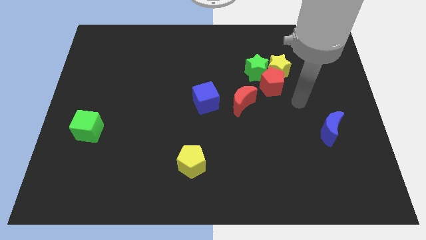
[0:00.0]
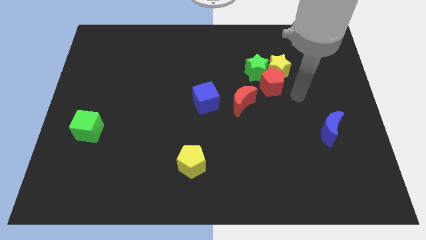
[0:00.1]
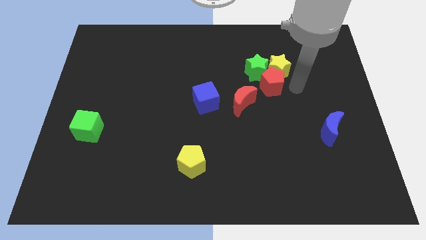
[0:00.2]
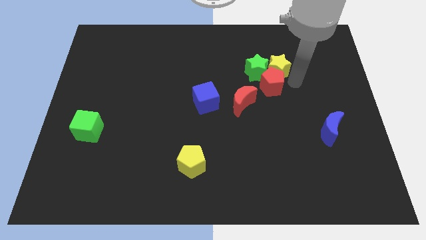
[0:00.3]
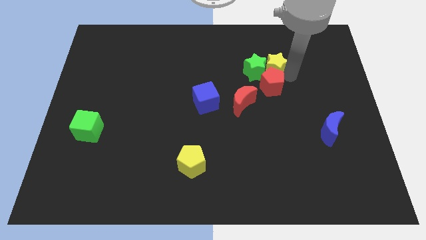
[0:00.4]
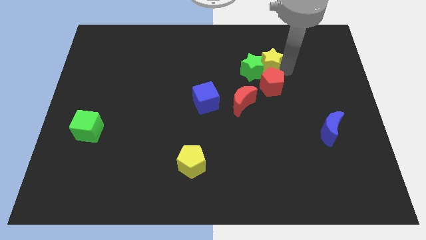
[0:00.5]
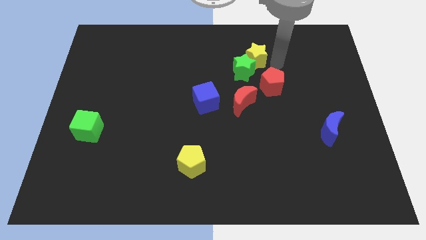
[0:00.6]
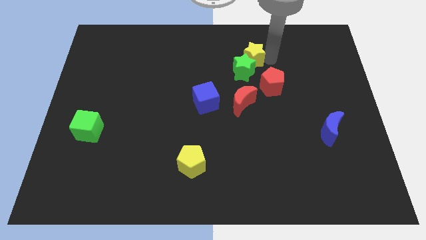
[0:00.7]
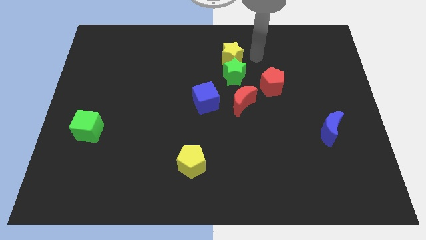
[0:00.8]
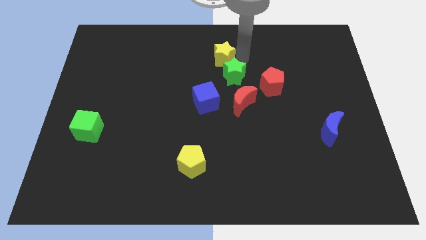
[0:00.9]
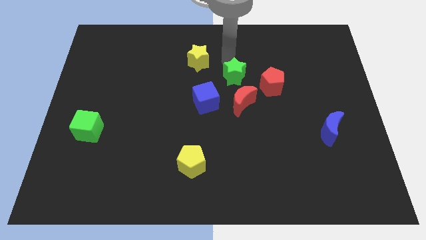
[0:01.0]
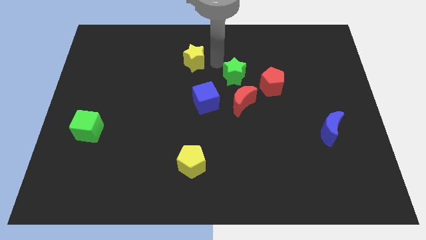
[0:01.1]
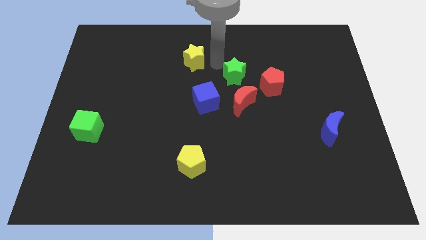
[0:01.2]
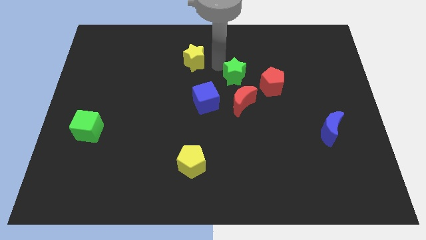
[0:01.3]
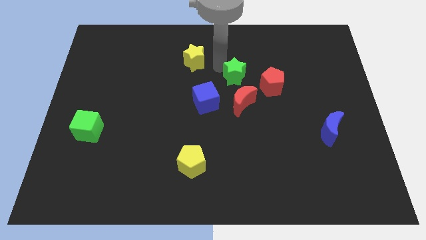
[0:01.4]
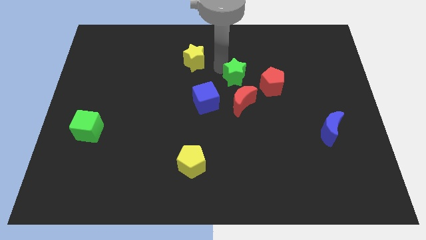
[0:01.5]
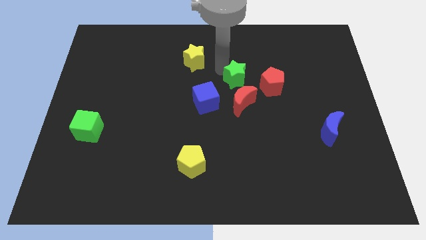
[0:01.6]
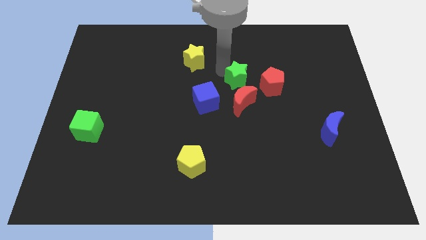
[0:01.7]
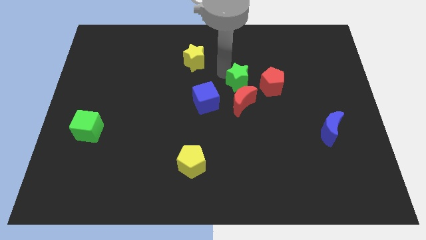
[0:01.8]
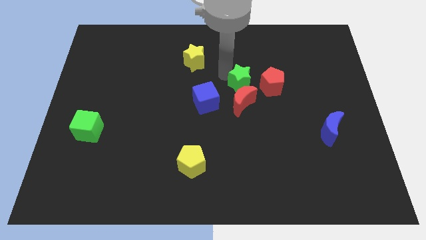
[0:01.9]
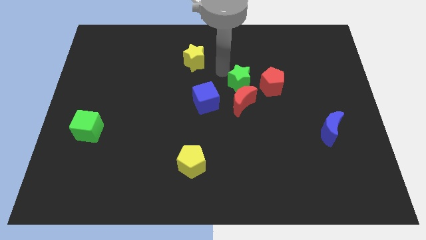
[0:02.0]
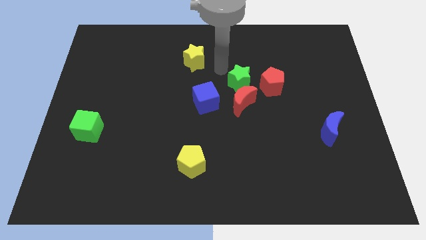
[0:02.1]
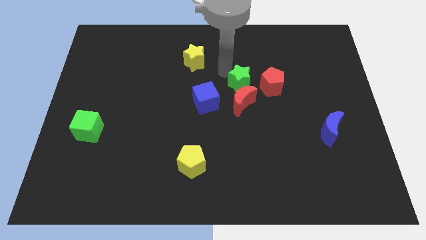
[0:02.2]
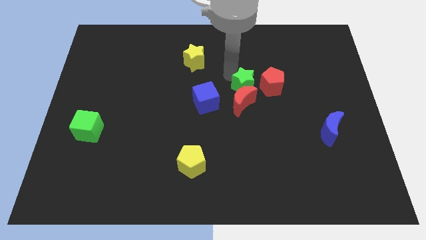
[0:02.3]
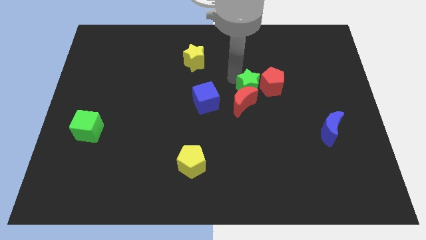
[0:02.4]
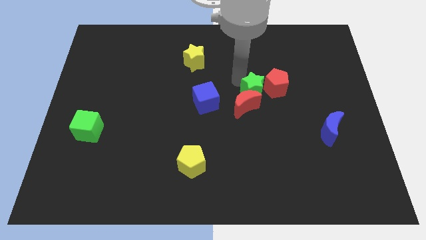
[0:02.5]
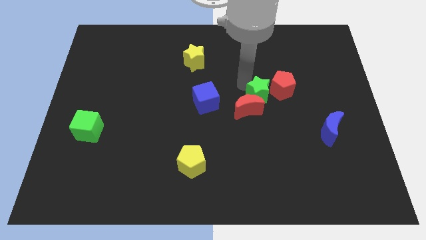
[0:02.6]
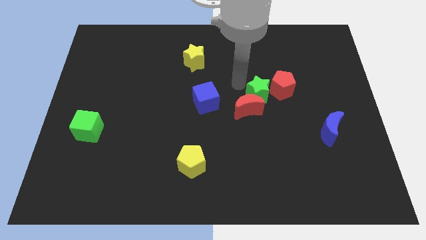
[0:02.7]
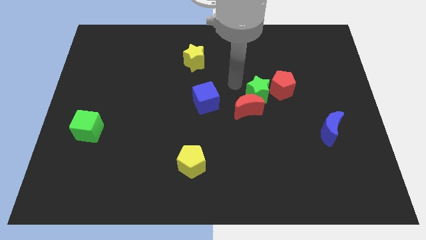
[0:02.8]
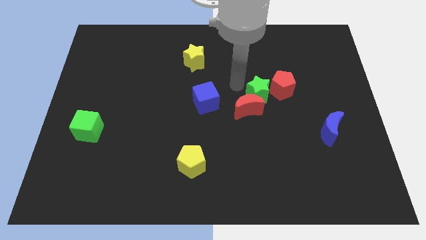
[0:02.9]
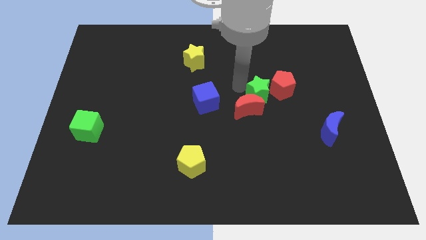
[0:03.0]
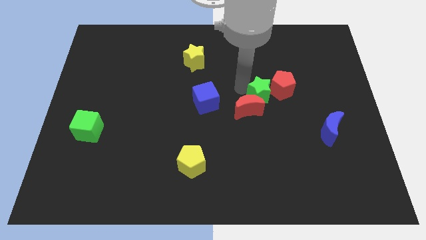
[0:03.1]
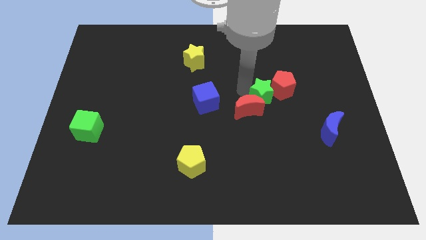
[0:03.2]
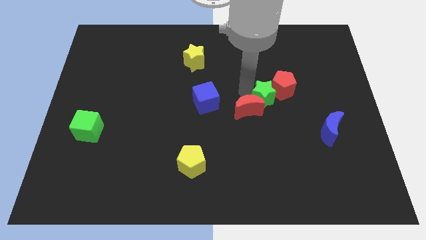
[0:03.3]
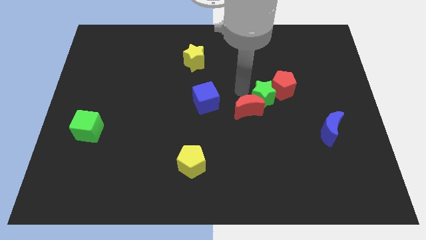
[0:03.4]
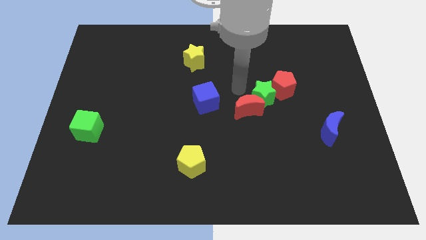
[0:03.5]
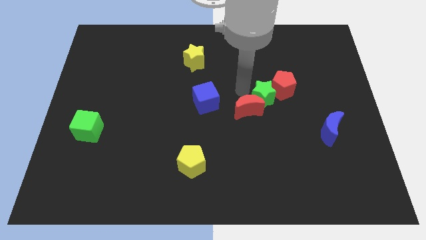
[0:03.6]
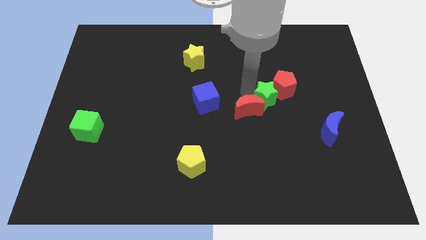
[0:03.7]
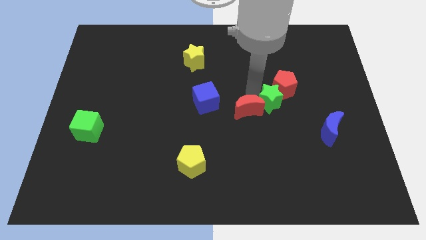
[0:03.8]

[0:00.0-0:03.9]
slide the green star diagonally down and right a little bit

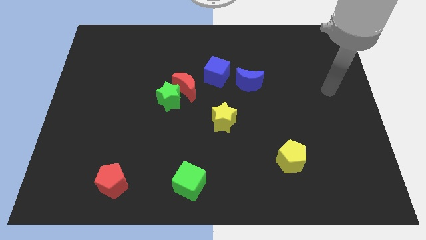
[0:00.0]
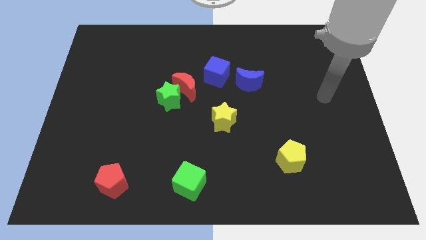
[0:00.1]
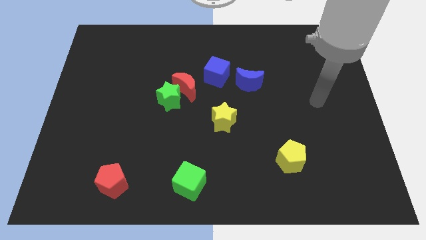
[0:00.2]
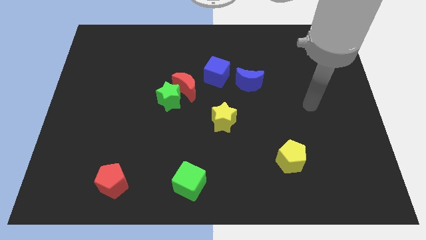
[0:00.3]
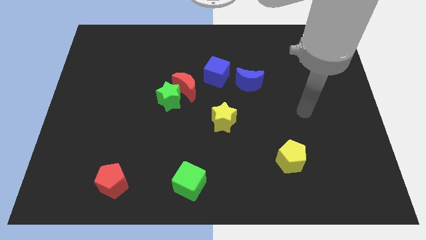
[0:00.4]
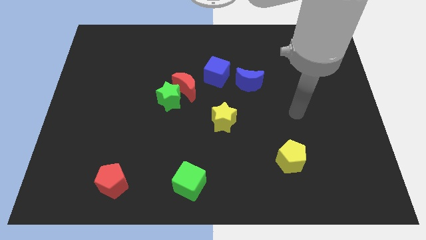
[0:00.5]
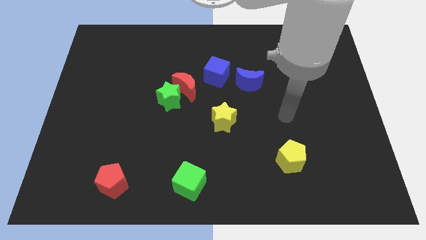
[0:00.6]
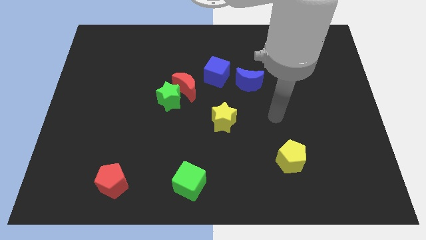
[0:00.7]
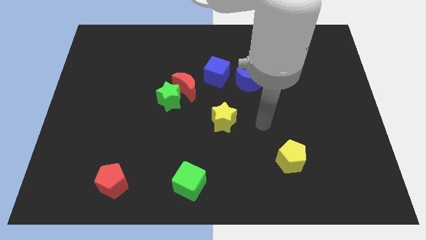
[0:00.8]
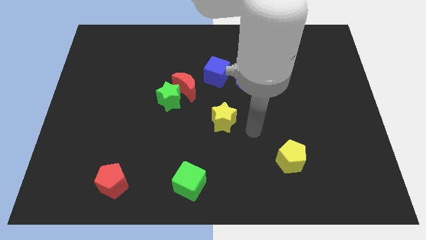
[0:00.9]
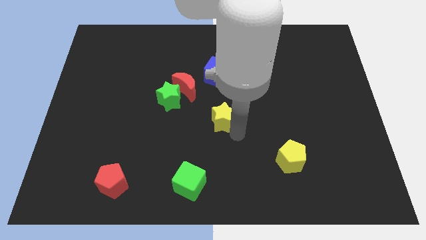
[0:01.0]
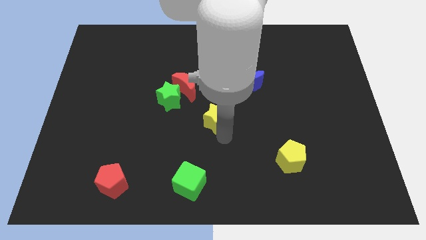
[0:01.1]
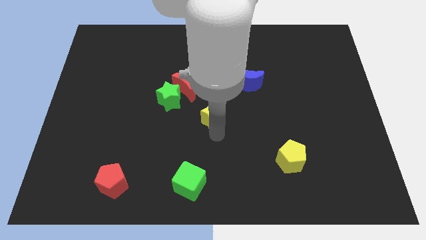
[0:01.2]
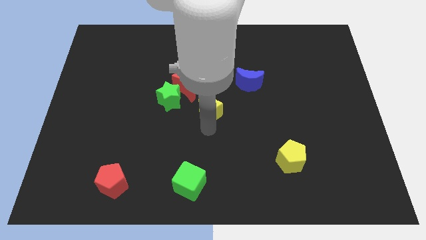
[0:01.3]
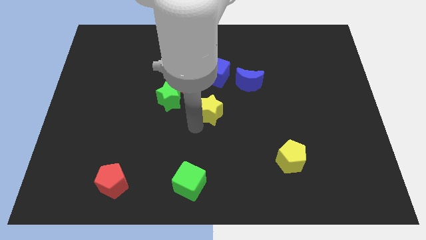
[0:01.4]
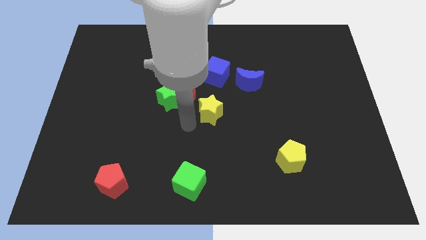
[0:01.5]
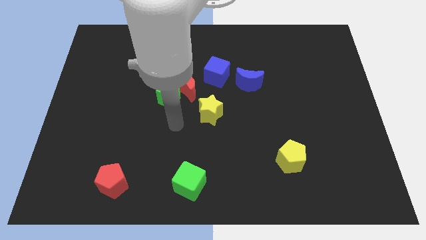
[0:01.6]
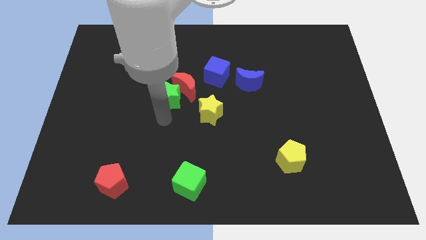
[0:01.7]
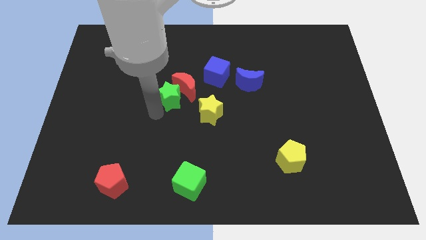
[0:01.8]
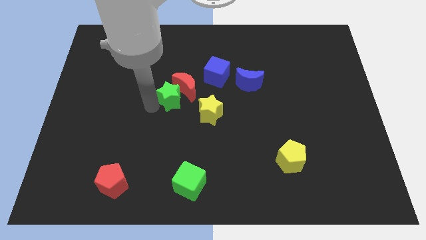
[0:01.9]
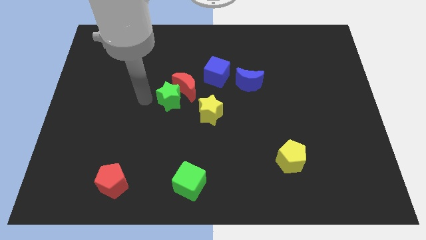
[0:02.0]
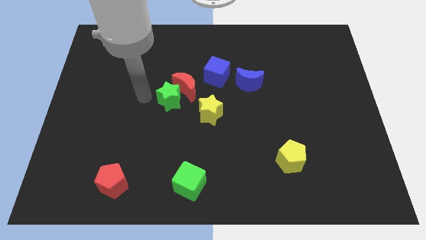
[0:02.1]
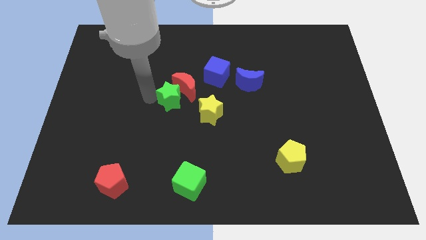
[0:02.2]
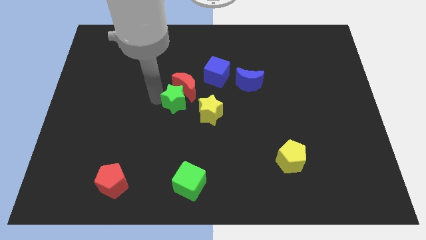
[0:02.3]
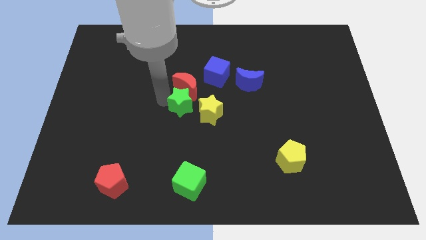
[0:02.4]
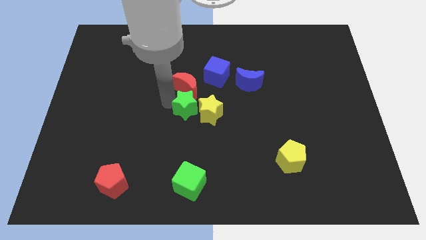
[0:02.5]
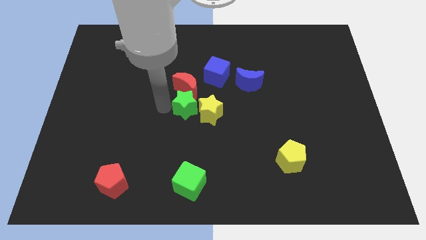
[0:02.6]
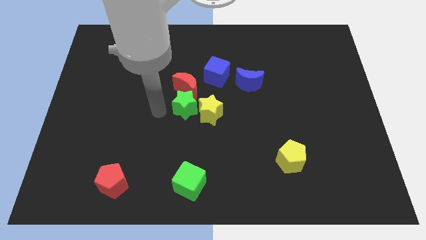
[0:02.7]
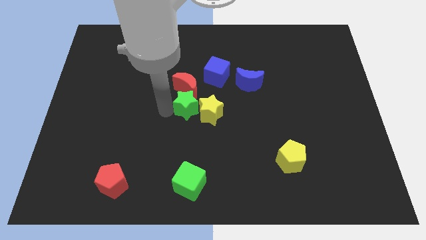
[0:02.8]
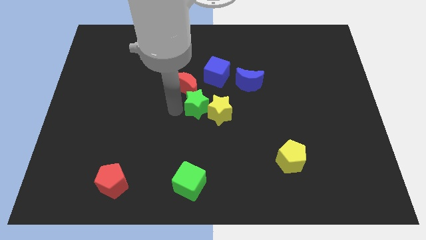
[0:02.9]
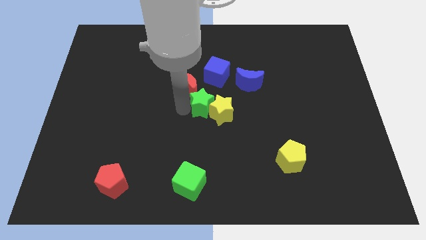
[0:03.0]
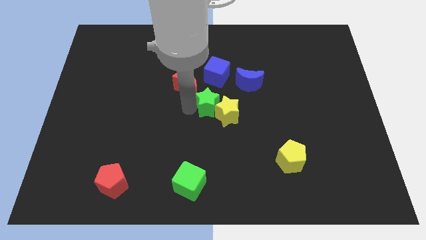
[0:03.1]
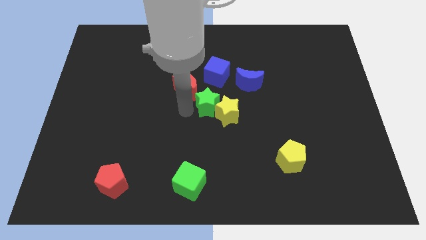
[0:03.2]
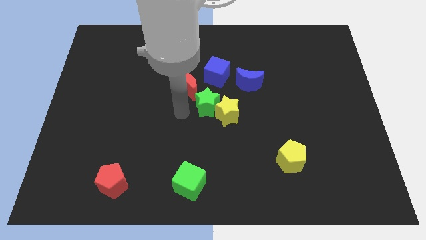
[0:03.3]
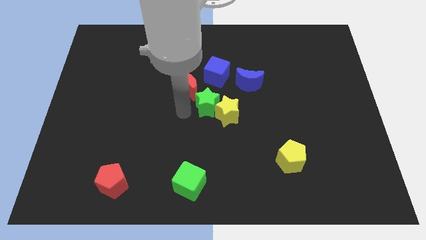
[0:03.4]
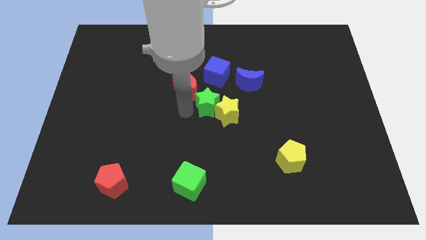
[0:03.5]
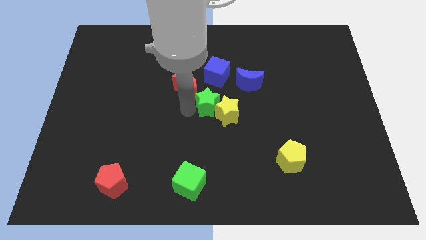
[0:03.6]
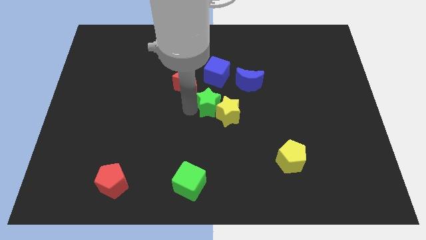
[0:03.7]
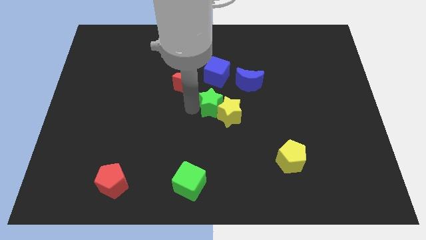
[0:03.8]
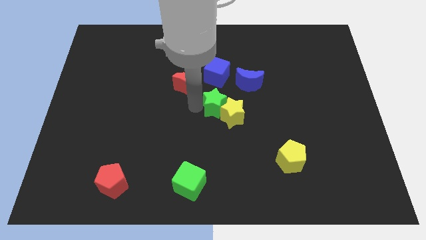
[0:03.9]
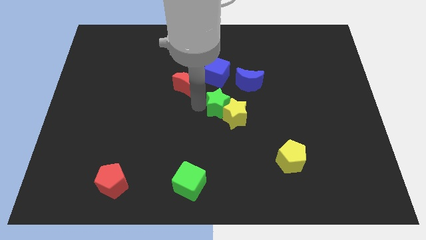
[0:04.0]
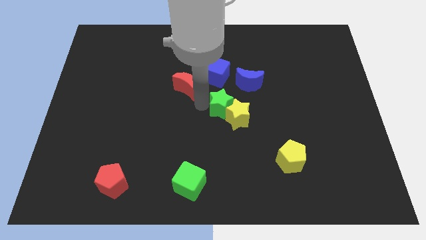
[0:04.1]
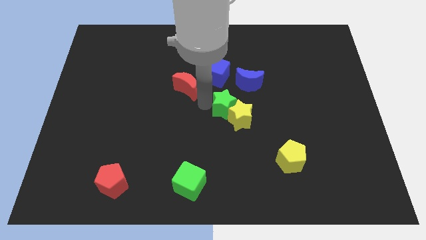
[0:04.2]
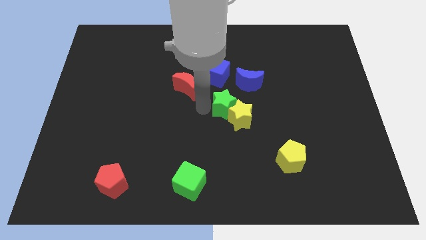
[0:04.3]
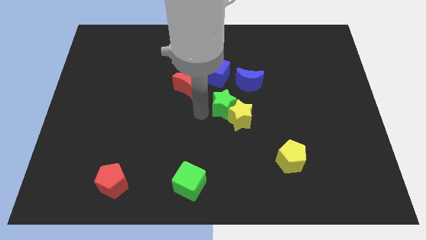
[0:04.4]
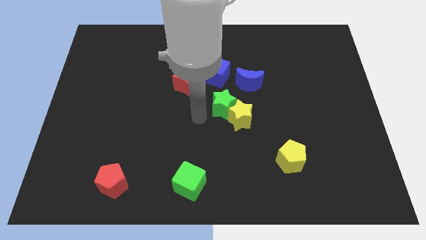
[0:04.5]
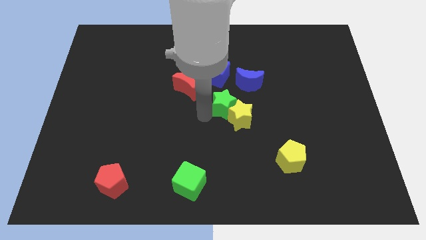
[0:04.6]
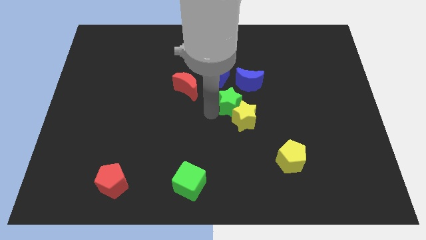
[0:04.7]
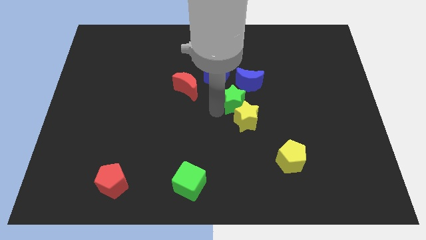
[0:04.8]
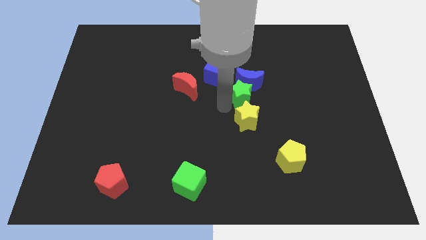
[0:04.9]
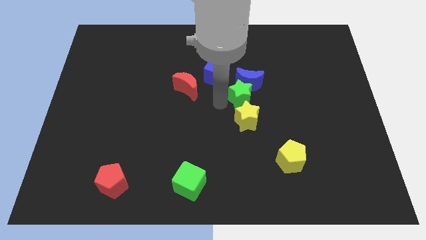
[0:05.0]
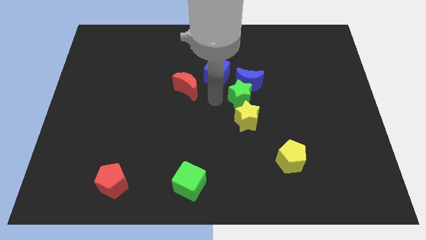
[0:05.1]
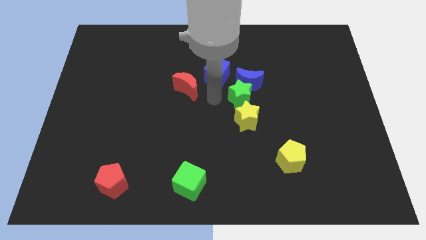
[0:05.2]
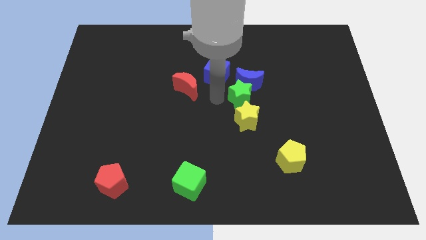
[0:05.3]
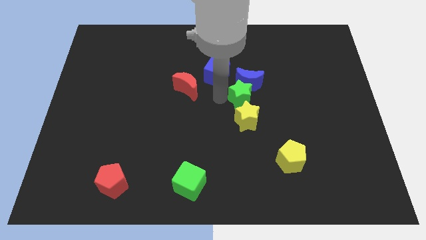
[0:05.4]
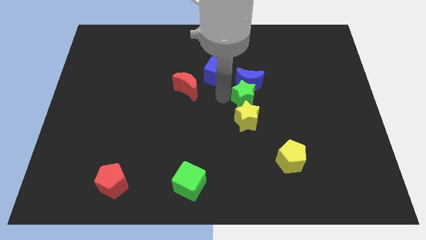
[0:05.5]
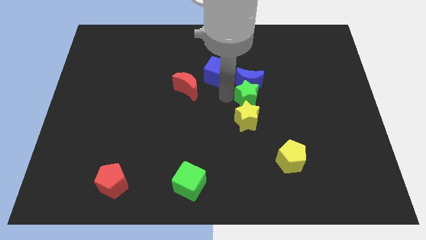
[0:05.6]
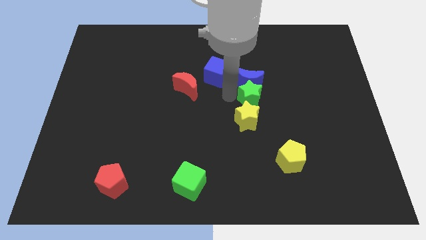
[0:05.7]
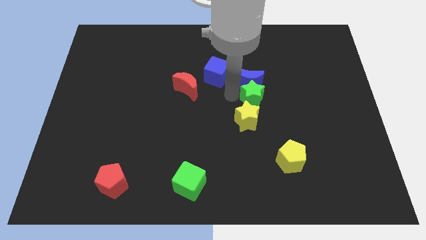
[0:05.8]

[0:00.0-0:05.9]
move the green star right
